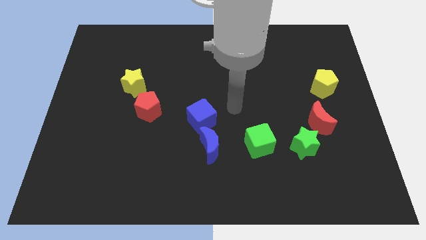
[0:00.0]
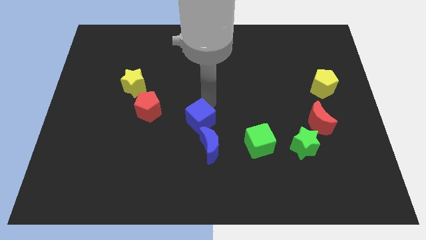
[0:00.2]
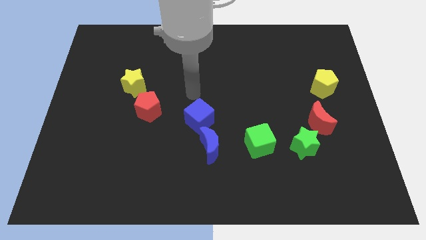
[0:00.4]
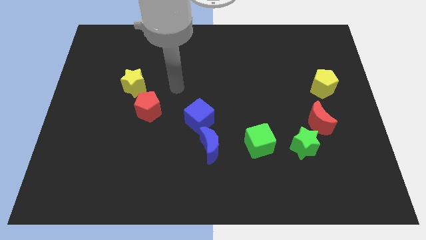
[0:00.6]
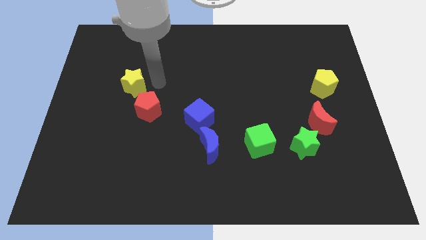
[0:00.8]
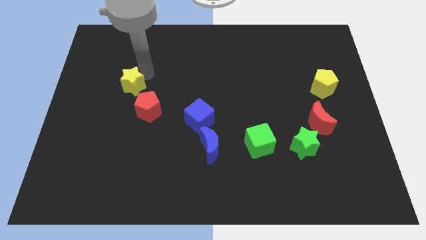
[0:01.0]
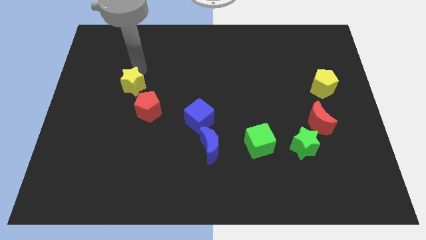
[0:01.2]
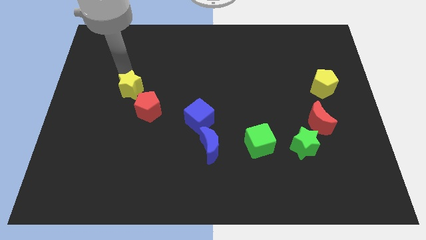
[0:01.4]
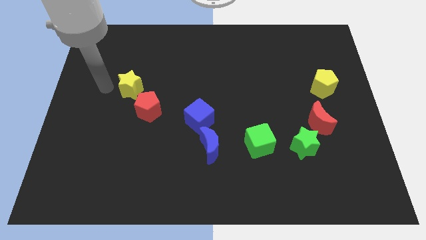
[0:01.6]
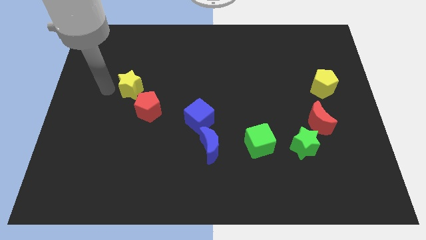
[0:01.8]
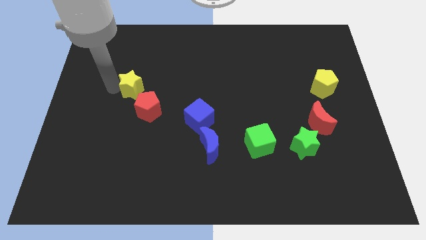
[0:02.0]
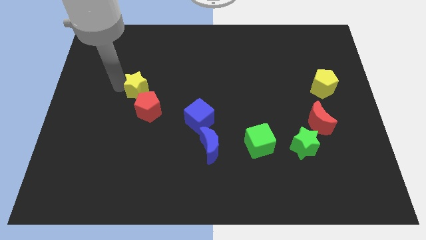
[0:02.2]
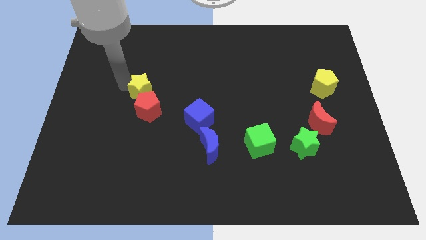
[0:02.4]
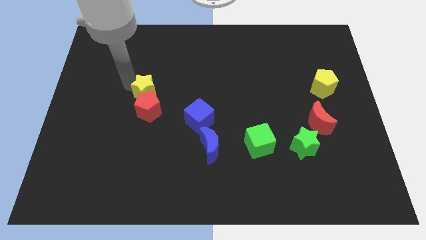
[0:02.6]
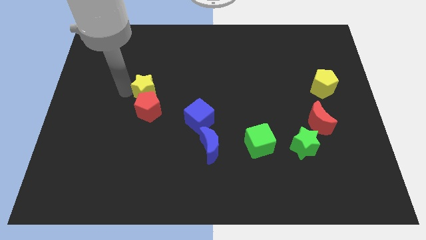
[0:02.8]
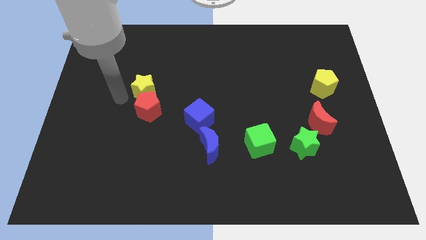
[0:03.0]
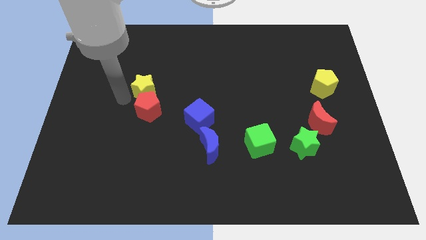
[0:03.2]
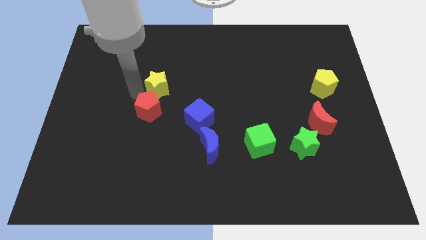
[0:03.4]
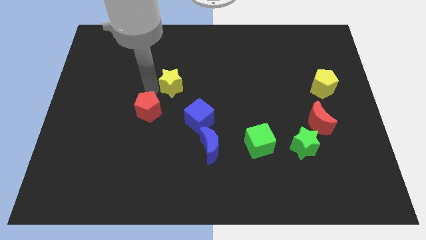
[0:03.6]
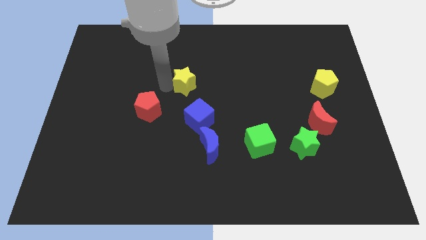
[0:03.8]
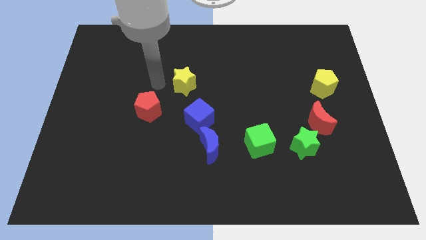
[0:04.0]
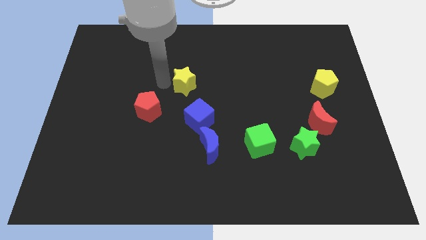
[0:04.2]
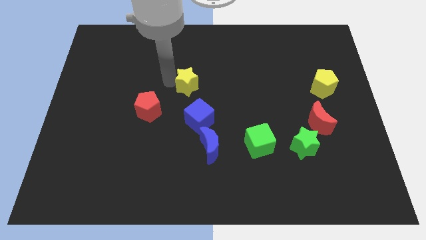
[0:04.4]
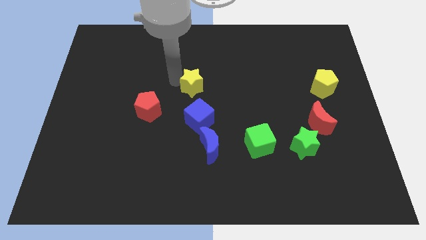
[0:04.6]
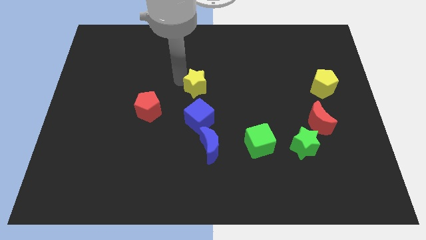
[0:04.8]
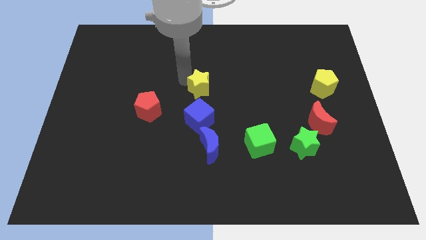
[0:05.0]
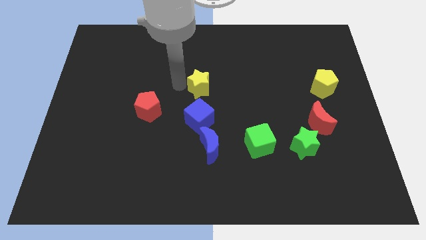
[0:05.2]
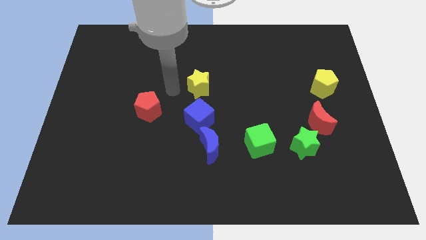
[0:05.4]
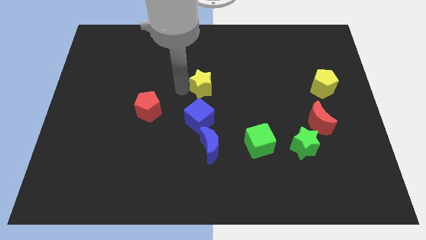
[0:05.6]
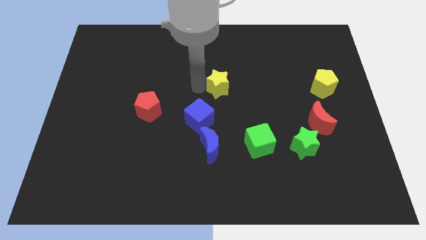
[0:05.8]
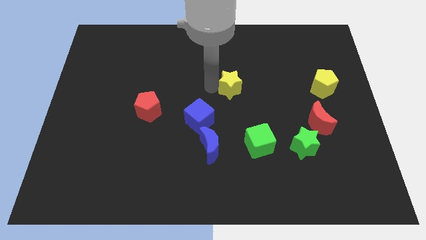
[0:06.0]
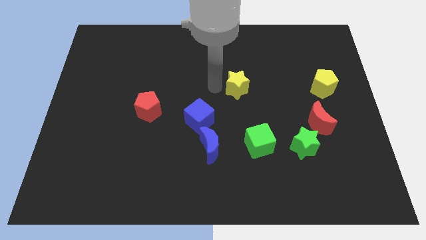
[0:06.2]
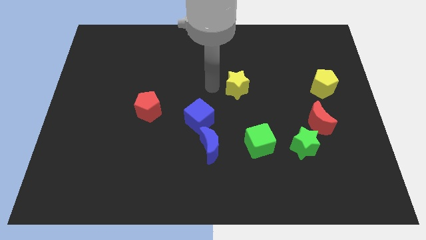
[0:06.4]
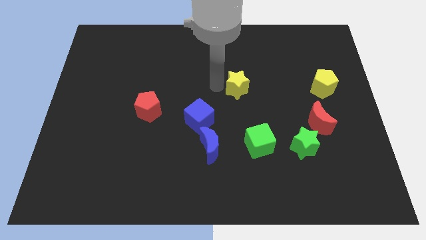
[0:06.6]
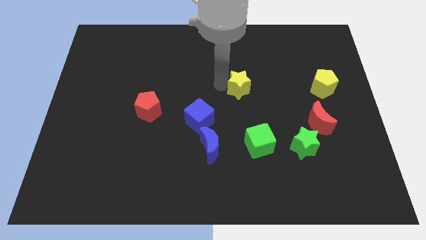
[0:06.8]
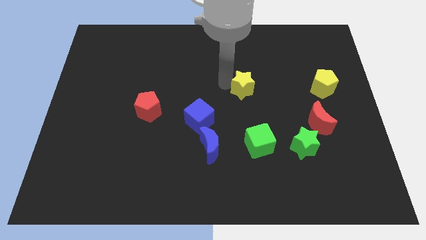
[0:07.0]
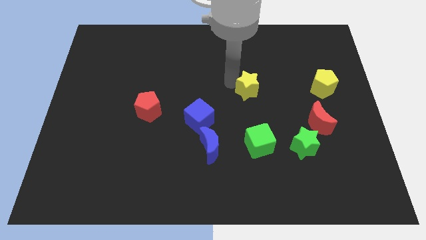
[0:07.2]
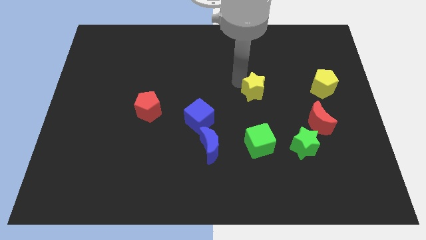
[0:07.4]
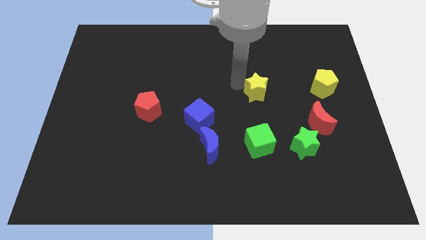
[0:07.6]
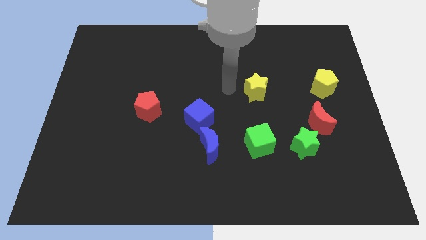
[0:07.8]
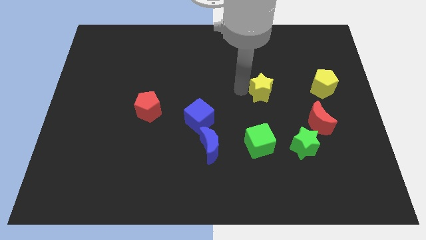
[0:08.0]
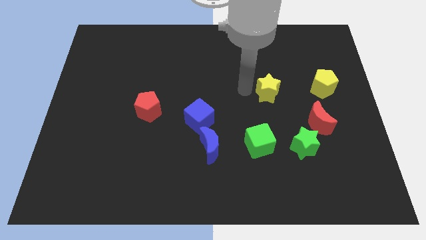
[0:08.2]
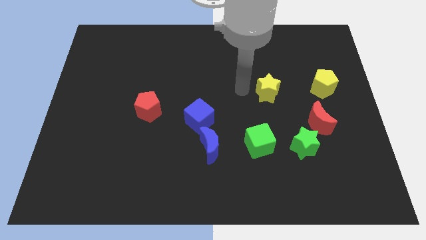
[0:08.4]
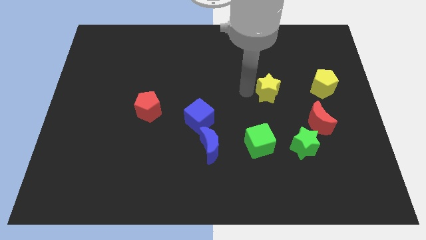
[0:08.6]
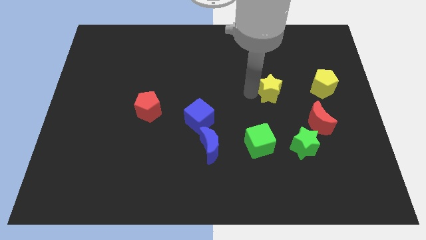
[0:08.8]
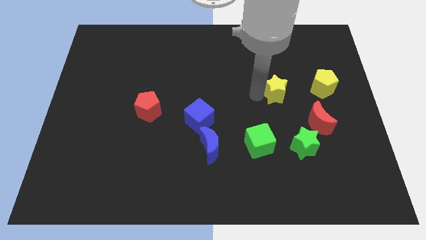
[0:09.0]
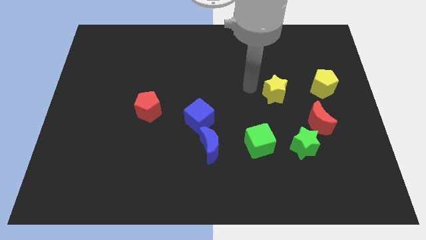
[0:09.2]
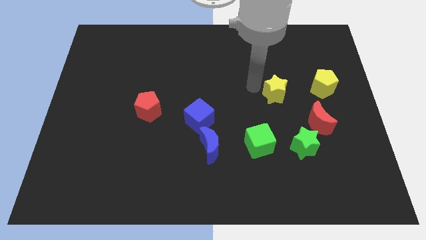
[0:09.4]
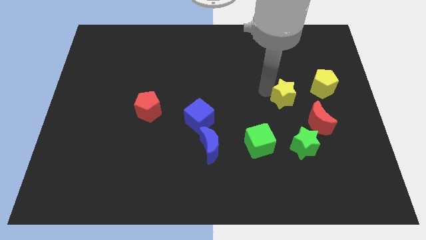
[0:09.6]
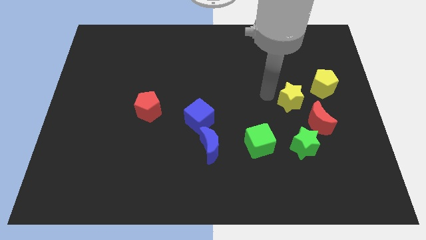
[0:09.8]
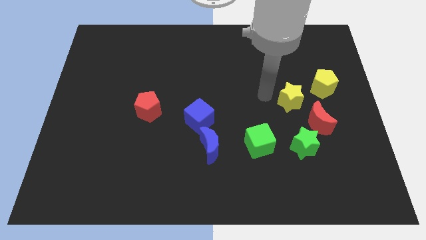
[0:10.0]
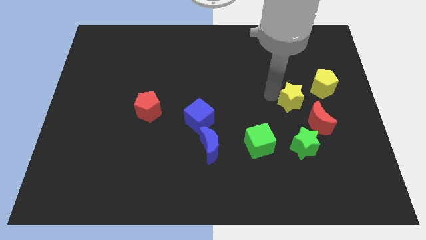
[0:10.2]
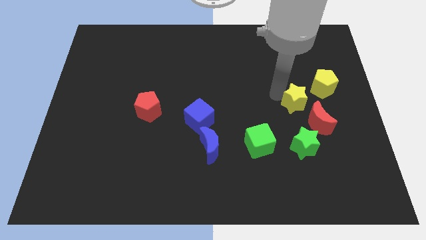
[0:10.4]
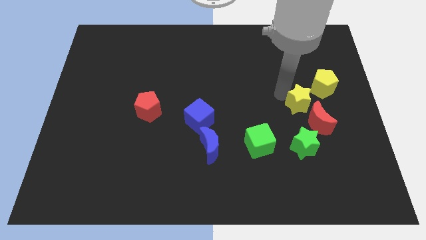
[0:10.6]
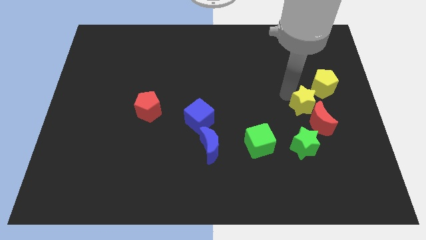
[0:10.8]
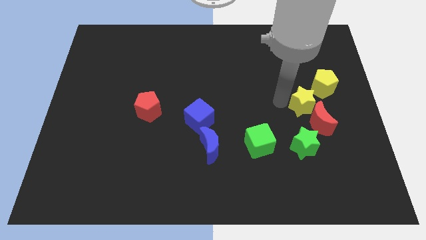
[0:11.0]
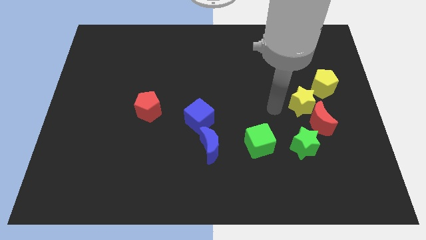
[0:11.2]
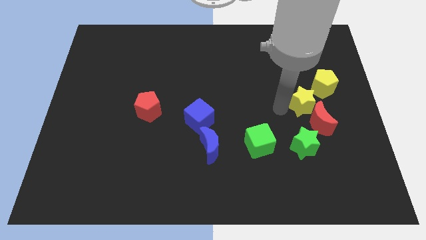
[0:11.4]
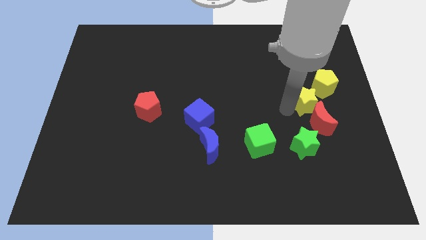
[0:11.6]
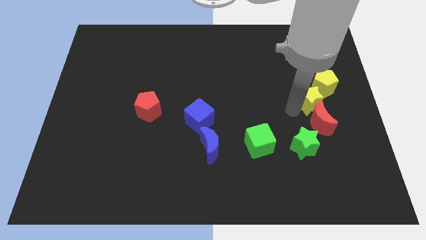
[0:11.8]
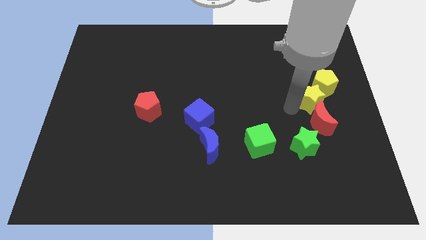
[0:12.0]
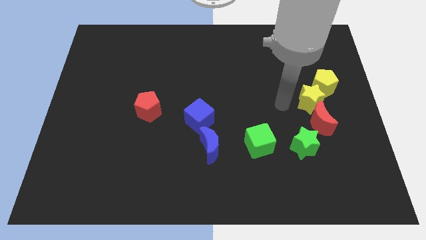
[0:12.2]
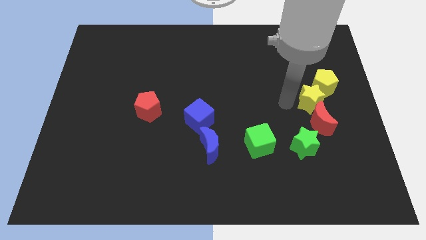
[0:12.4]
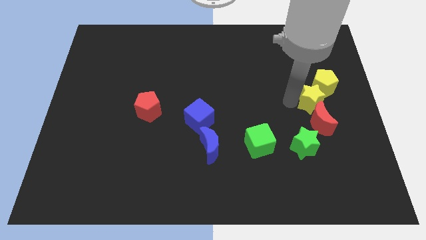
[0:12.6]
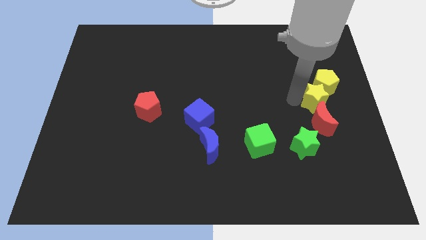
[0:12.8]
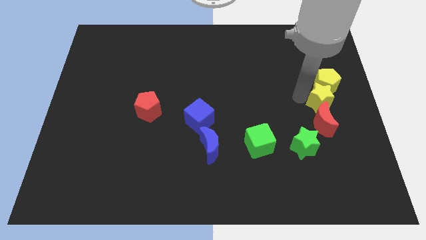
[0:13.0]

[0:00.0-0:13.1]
push the yellow star to the right side of the board
